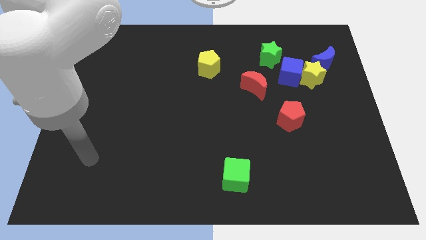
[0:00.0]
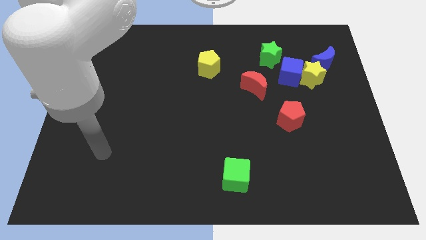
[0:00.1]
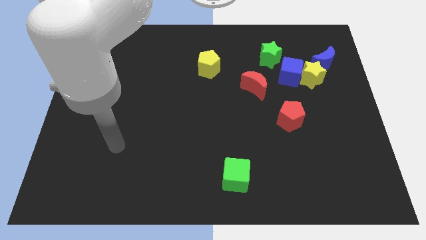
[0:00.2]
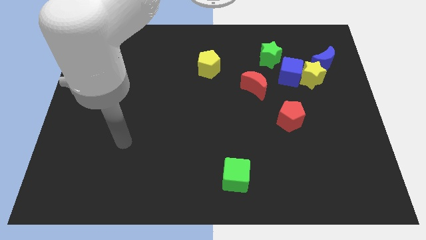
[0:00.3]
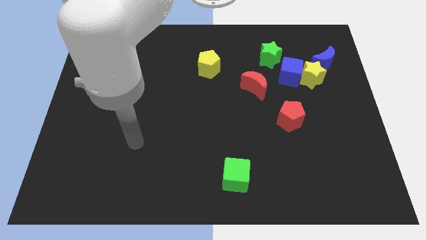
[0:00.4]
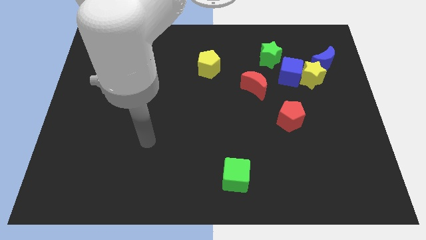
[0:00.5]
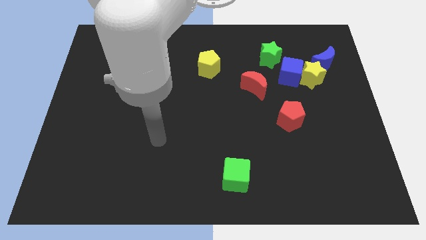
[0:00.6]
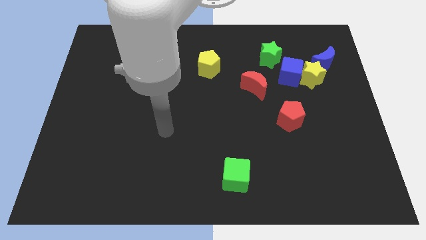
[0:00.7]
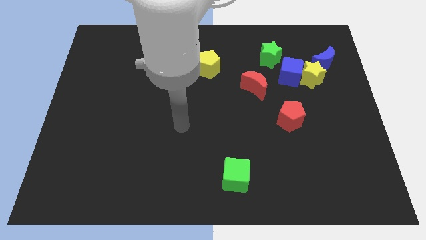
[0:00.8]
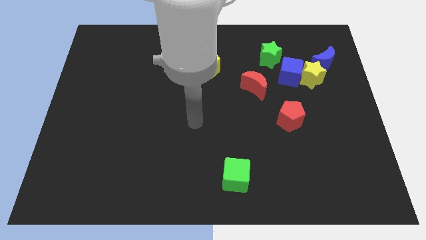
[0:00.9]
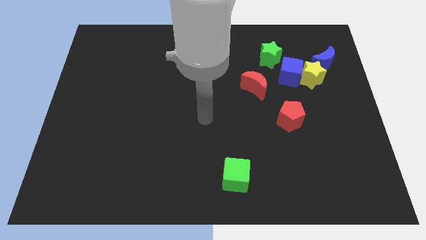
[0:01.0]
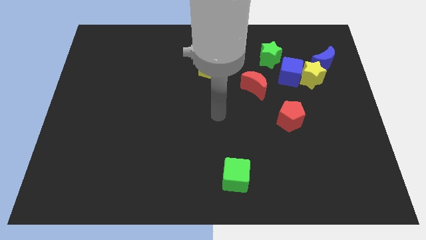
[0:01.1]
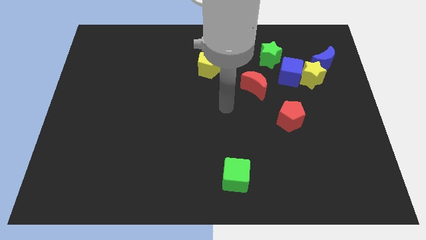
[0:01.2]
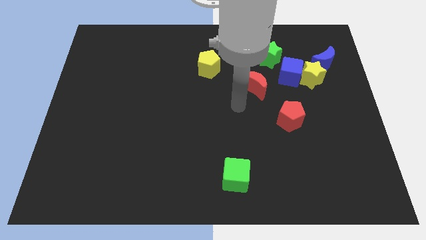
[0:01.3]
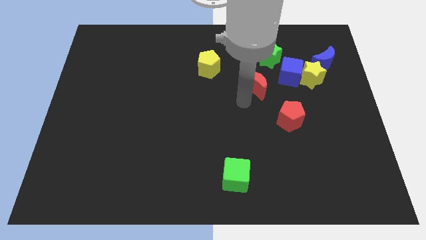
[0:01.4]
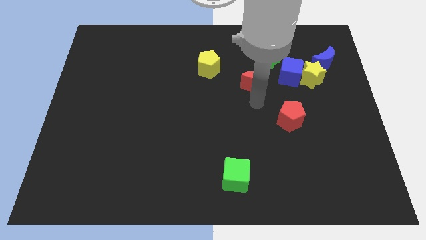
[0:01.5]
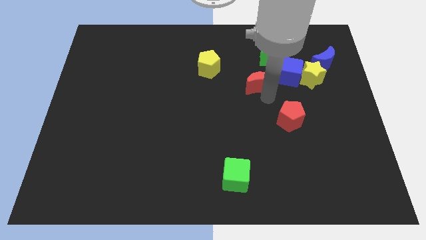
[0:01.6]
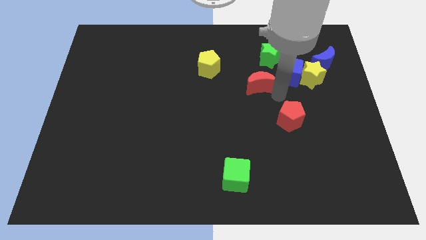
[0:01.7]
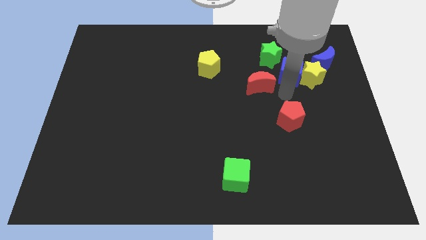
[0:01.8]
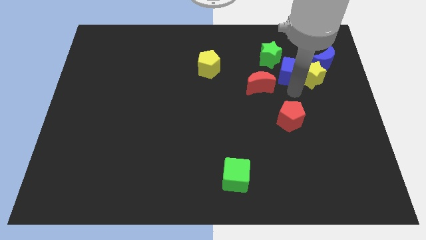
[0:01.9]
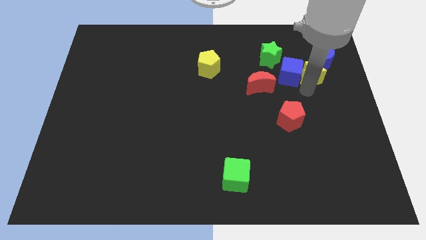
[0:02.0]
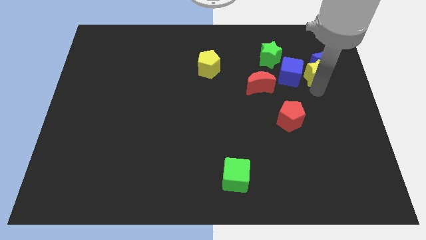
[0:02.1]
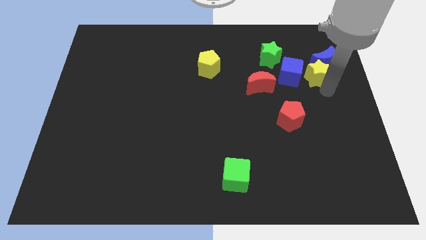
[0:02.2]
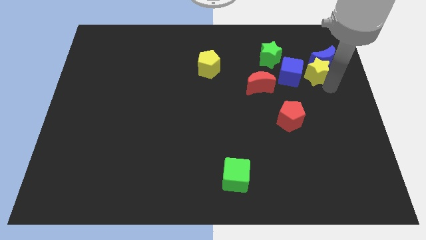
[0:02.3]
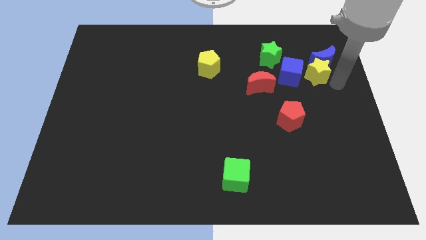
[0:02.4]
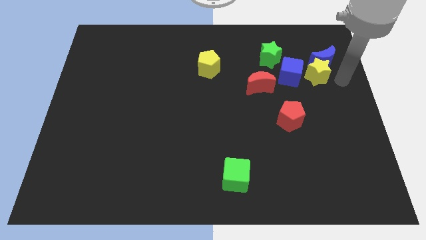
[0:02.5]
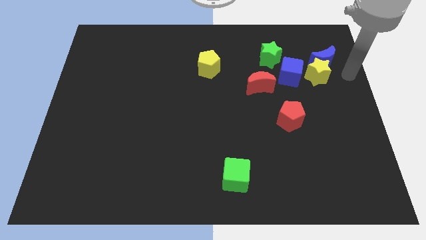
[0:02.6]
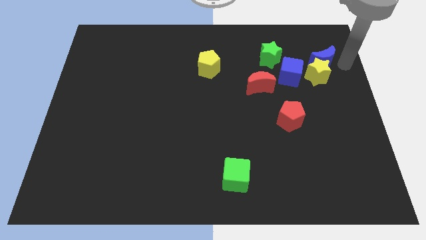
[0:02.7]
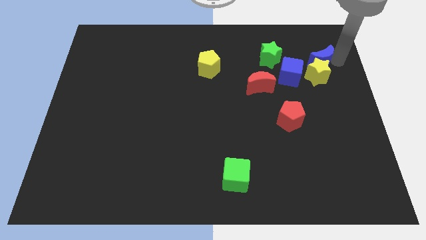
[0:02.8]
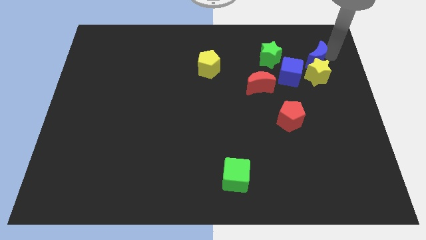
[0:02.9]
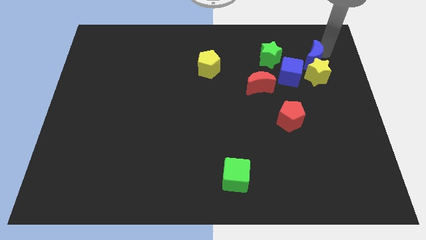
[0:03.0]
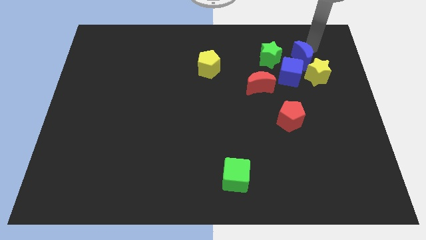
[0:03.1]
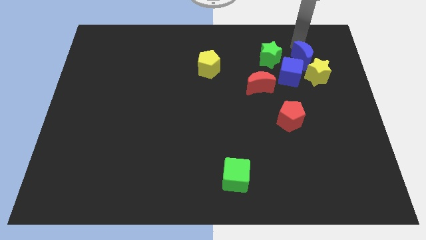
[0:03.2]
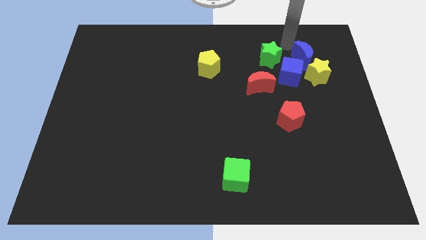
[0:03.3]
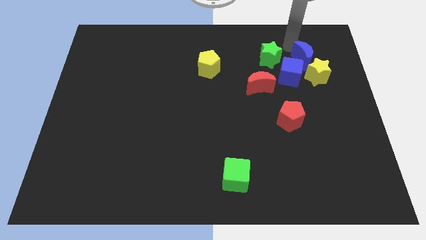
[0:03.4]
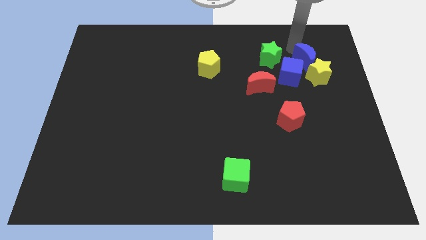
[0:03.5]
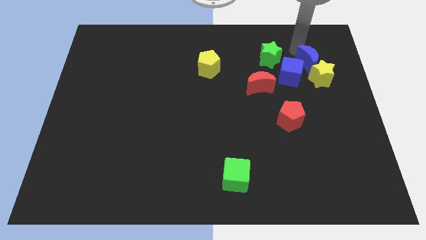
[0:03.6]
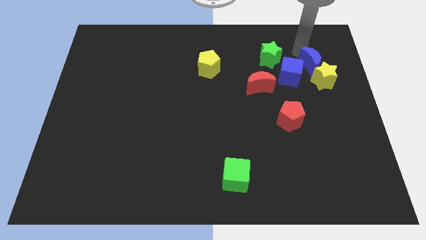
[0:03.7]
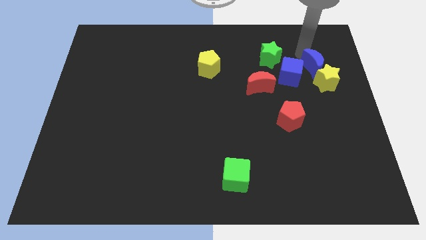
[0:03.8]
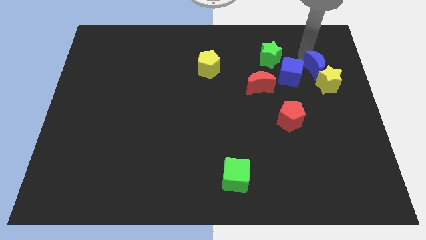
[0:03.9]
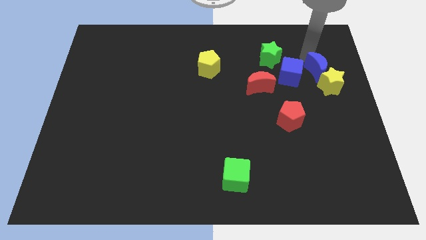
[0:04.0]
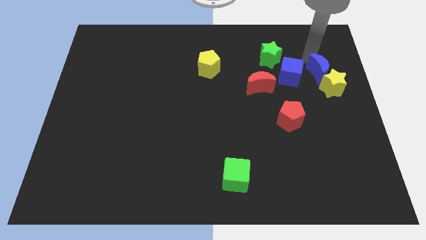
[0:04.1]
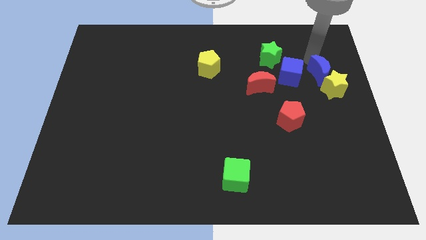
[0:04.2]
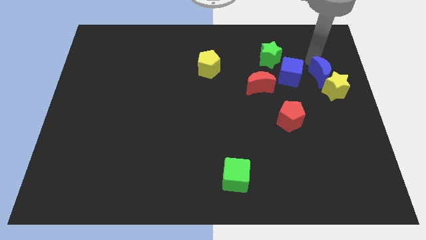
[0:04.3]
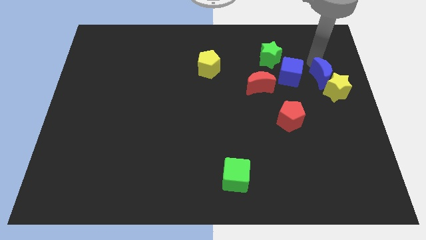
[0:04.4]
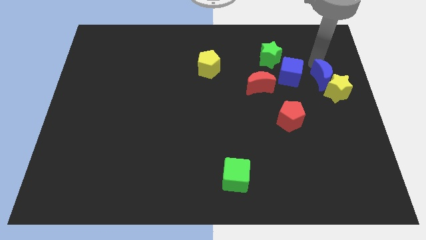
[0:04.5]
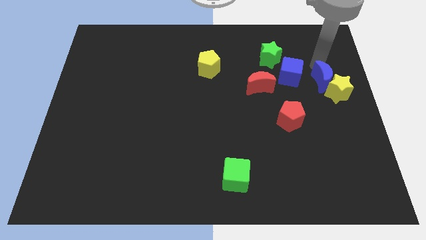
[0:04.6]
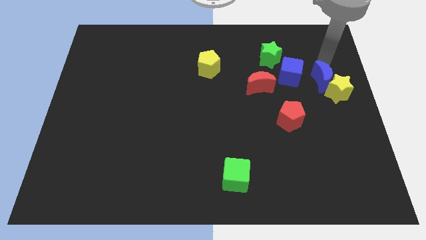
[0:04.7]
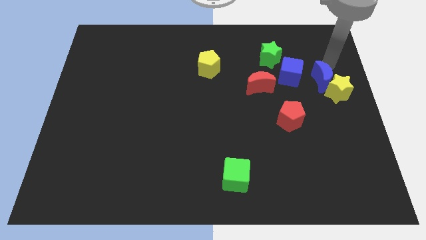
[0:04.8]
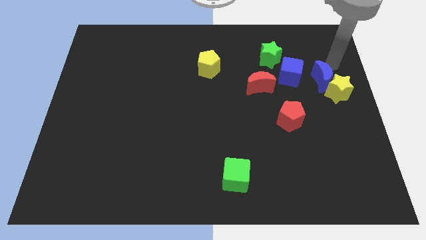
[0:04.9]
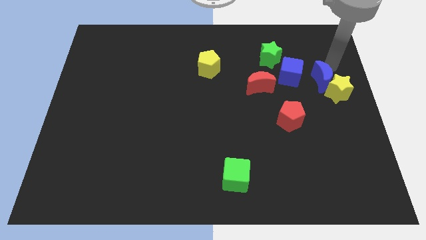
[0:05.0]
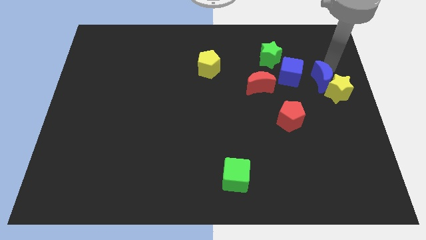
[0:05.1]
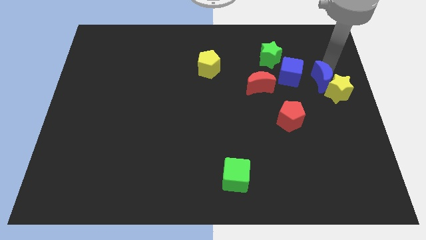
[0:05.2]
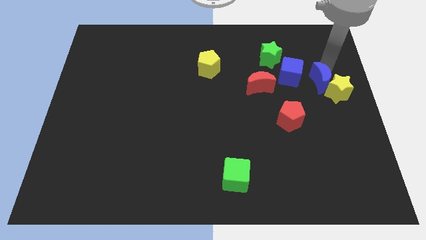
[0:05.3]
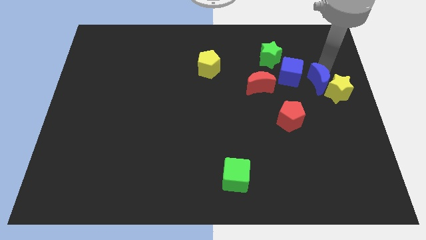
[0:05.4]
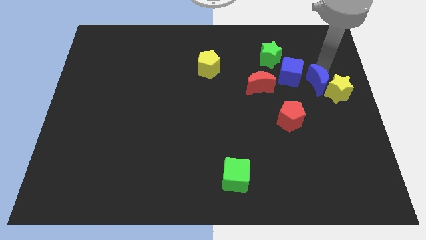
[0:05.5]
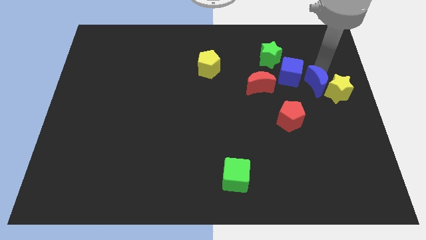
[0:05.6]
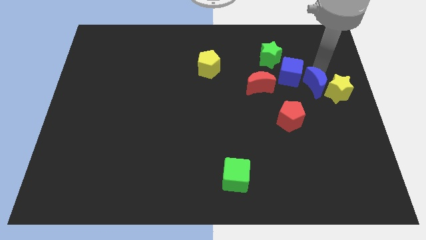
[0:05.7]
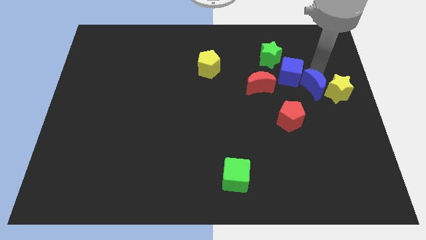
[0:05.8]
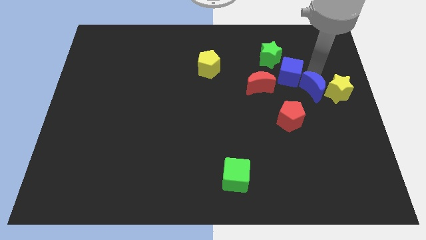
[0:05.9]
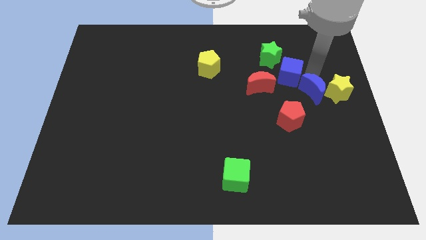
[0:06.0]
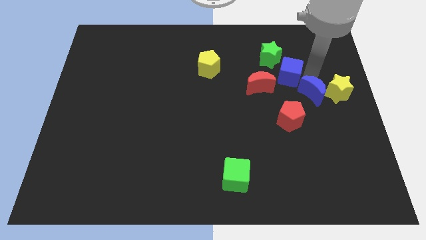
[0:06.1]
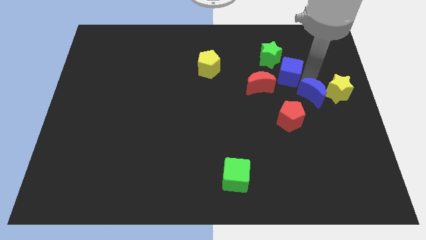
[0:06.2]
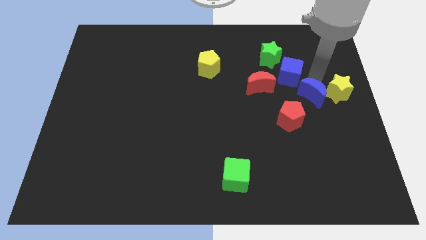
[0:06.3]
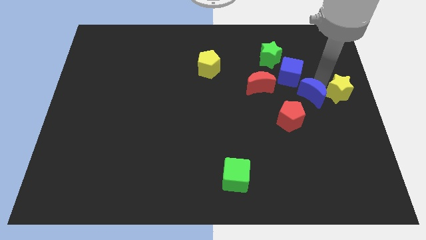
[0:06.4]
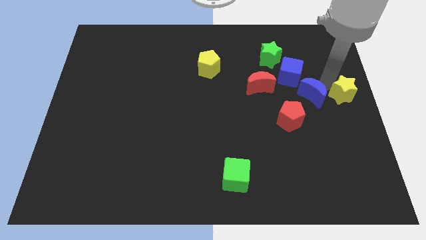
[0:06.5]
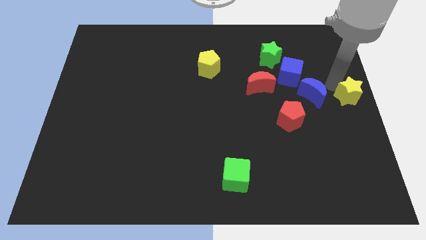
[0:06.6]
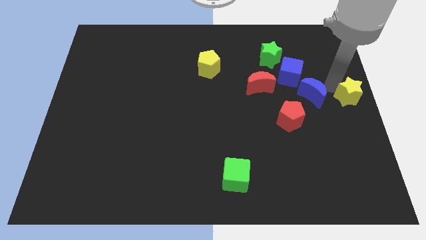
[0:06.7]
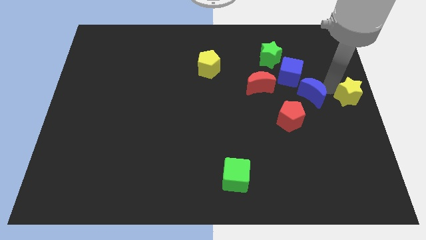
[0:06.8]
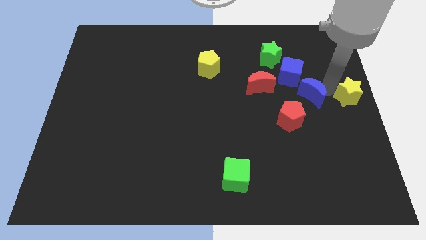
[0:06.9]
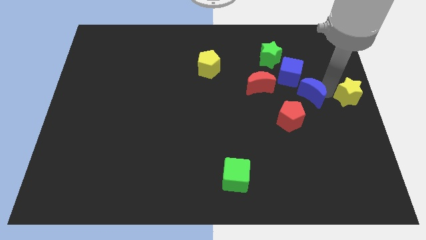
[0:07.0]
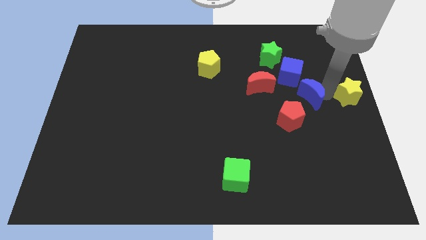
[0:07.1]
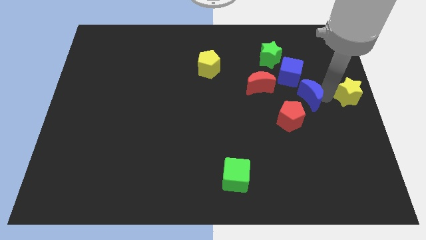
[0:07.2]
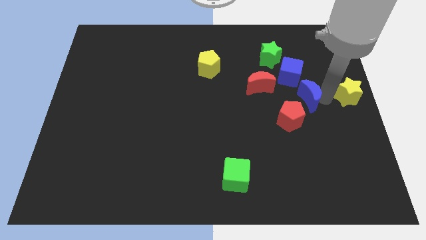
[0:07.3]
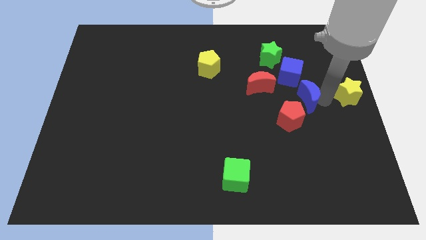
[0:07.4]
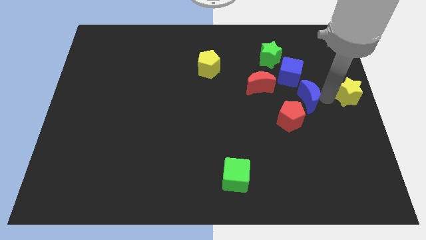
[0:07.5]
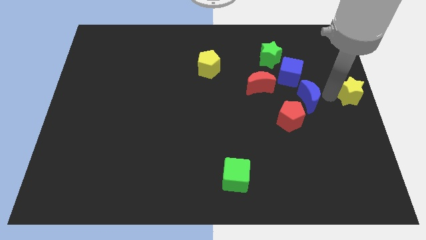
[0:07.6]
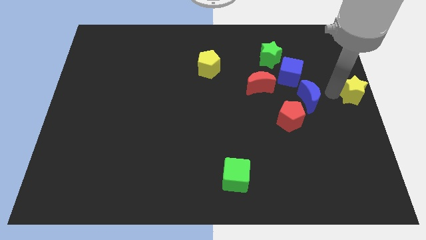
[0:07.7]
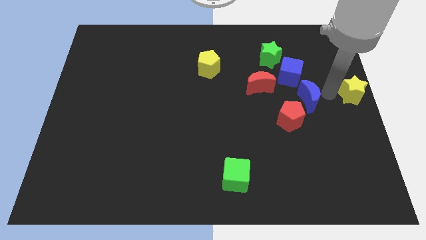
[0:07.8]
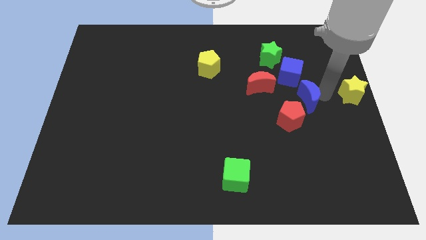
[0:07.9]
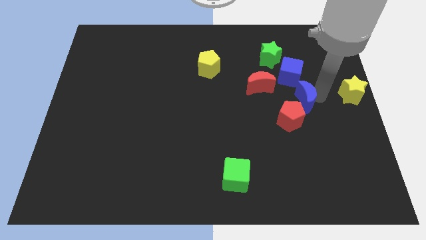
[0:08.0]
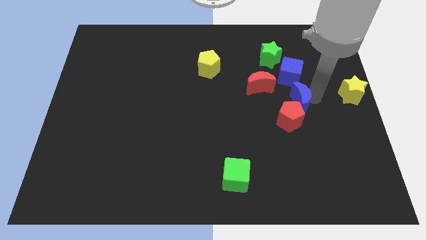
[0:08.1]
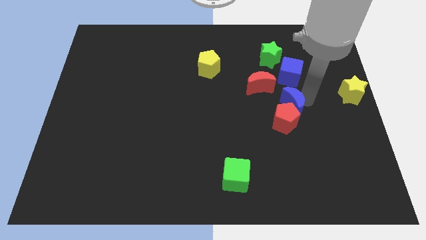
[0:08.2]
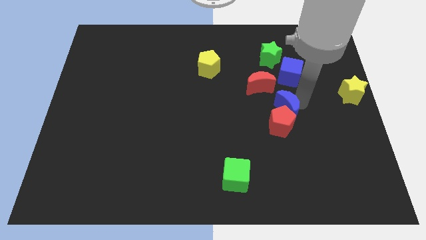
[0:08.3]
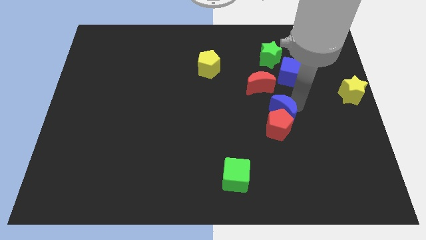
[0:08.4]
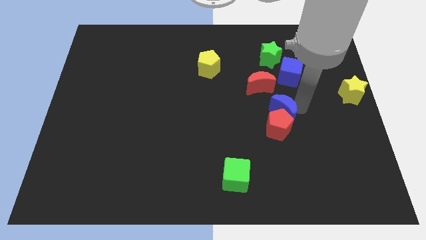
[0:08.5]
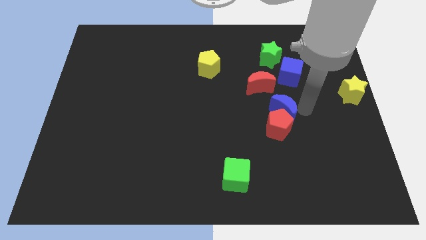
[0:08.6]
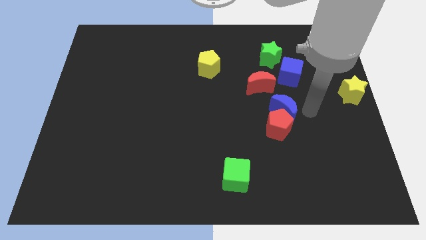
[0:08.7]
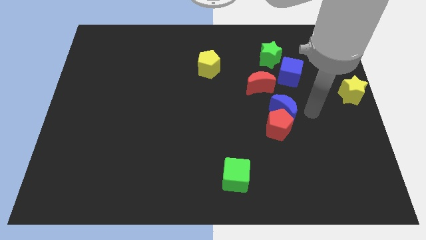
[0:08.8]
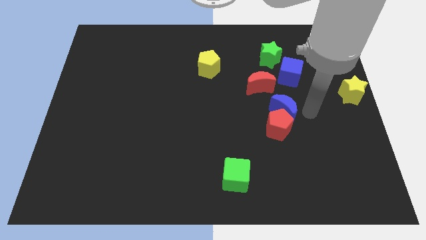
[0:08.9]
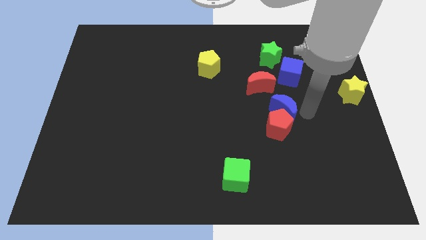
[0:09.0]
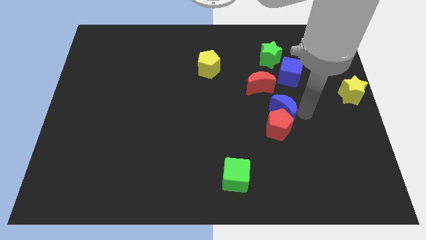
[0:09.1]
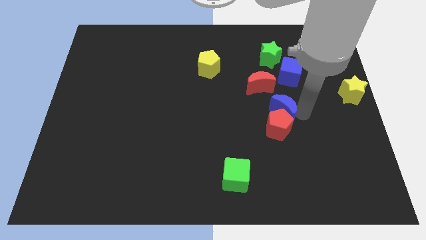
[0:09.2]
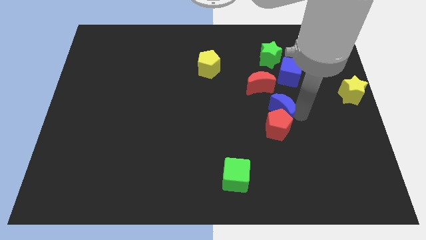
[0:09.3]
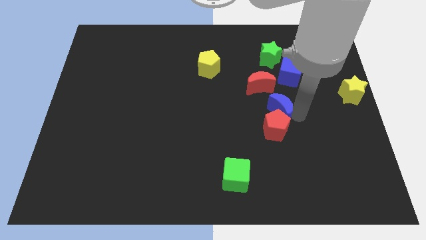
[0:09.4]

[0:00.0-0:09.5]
move the blue moon diagonally downwards and left
